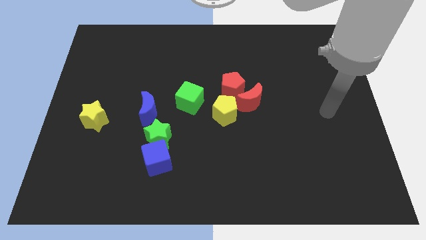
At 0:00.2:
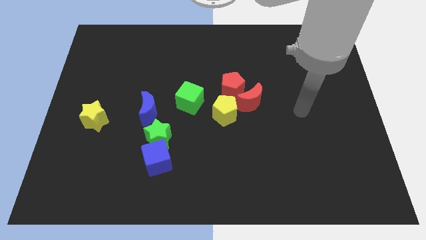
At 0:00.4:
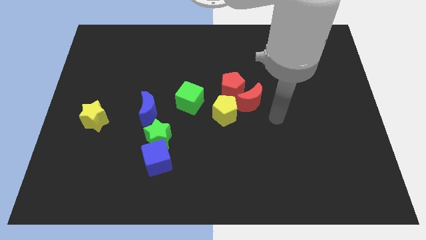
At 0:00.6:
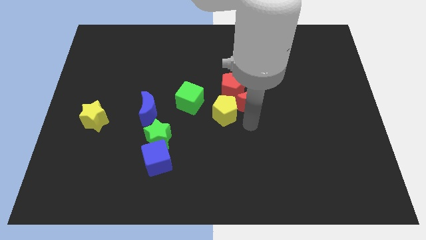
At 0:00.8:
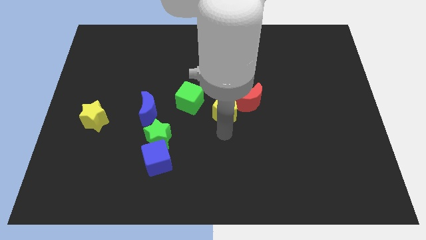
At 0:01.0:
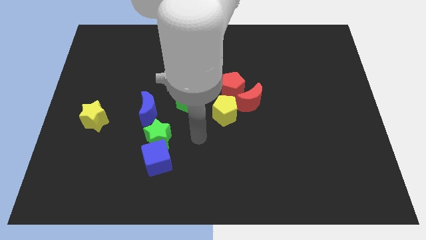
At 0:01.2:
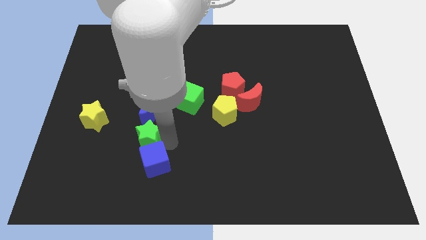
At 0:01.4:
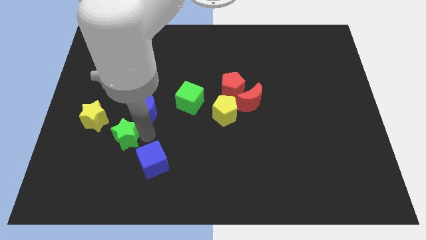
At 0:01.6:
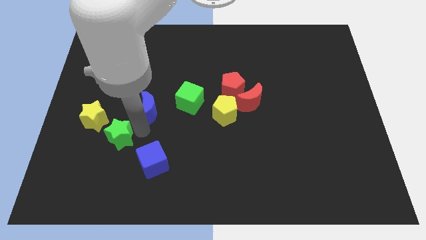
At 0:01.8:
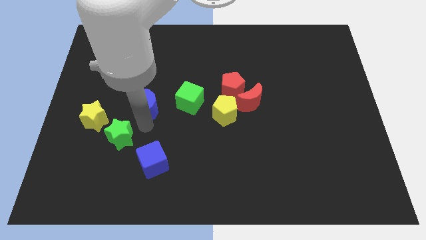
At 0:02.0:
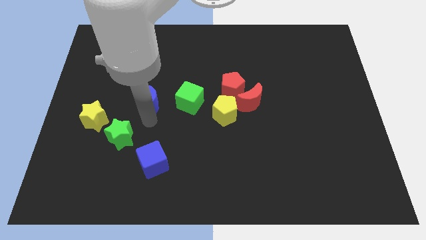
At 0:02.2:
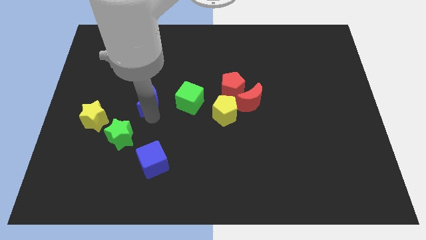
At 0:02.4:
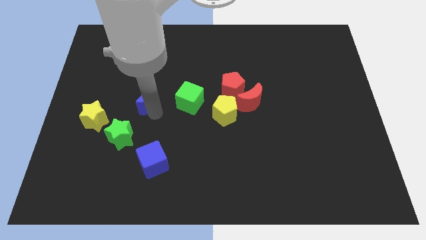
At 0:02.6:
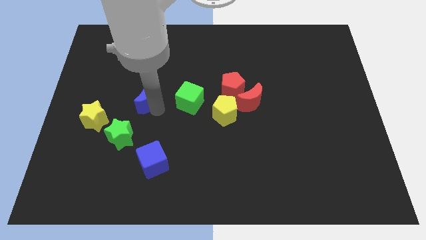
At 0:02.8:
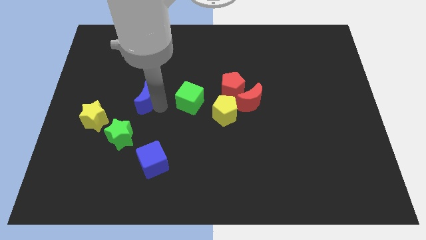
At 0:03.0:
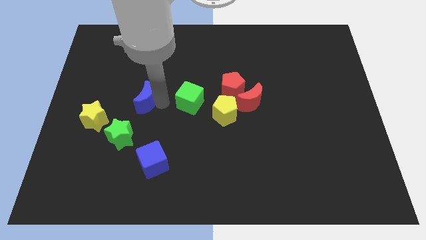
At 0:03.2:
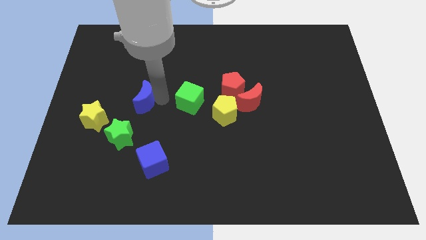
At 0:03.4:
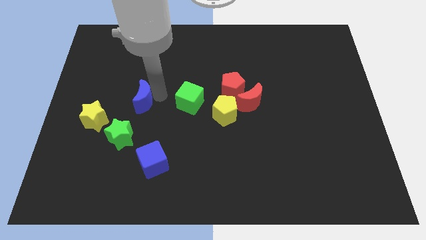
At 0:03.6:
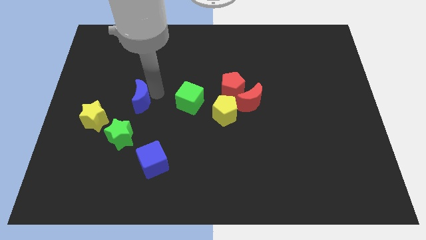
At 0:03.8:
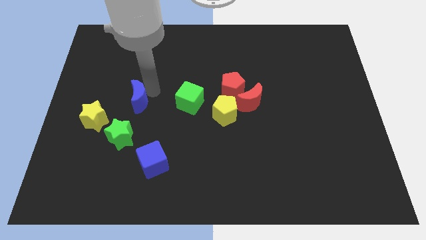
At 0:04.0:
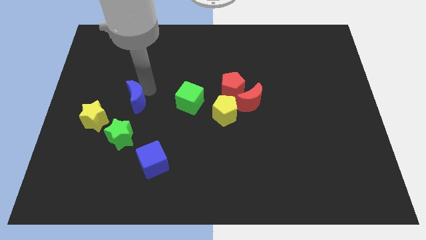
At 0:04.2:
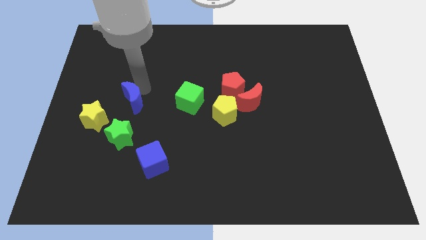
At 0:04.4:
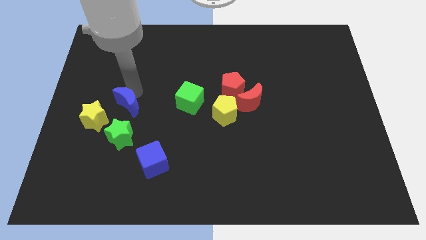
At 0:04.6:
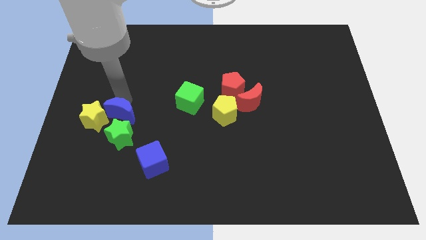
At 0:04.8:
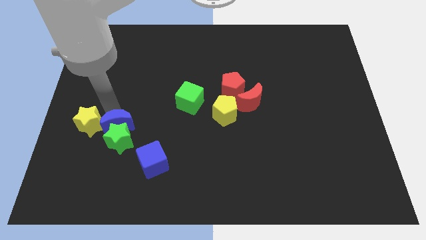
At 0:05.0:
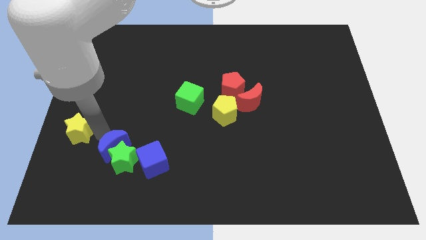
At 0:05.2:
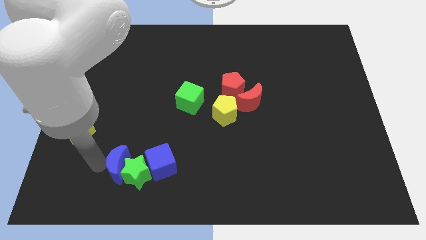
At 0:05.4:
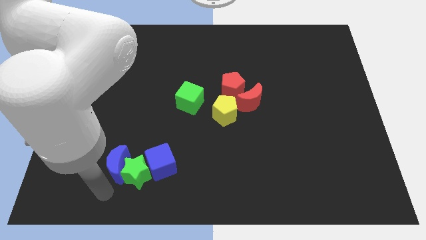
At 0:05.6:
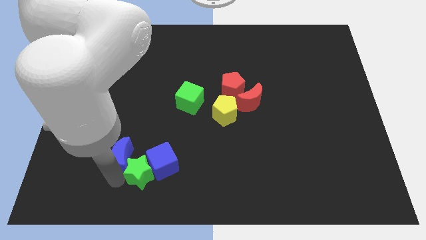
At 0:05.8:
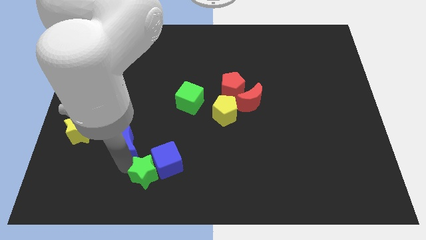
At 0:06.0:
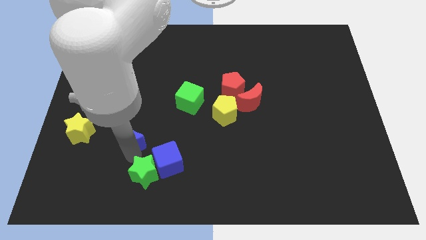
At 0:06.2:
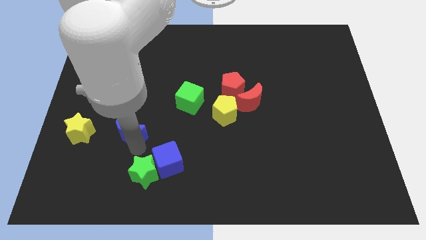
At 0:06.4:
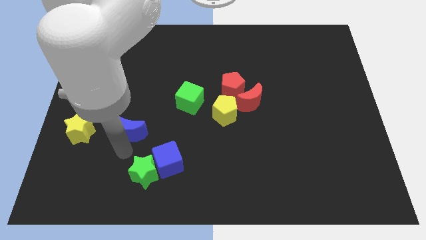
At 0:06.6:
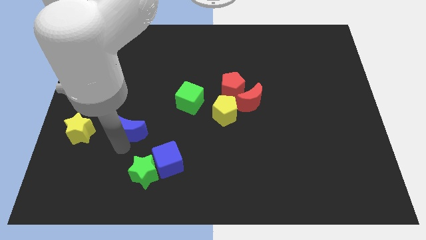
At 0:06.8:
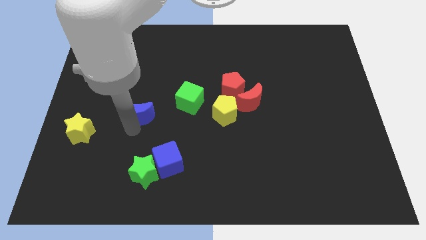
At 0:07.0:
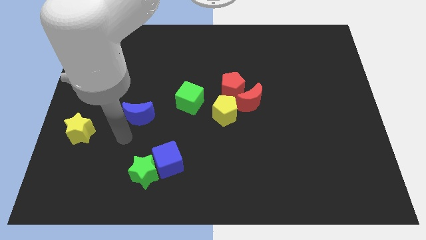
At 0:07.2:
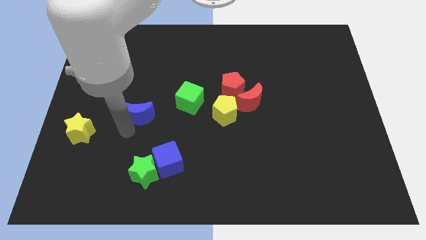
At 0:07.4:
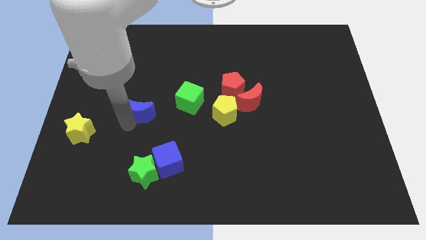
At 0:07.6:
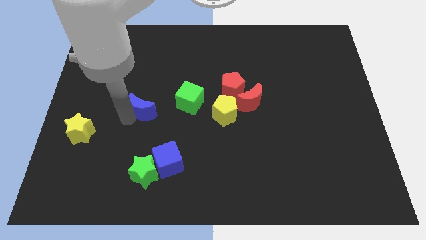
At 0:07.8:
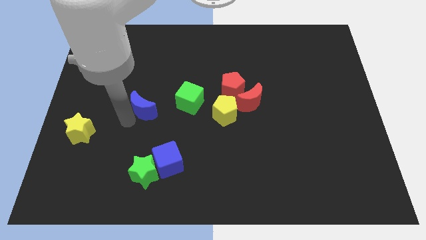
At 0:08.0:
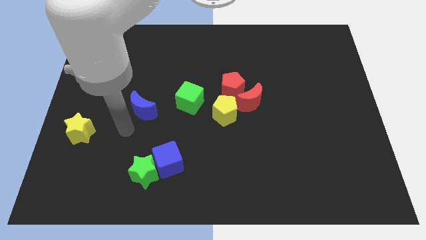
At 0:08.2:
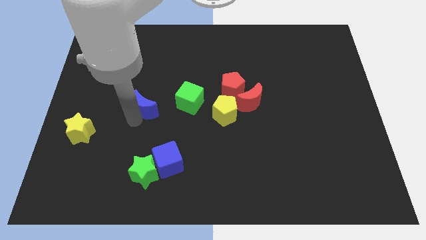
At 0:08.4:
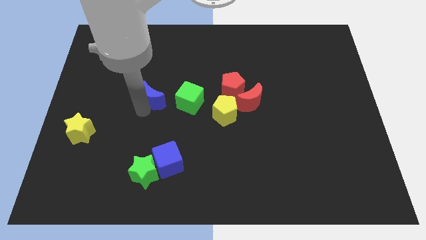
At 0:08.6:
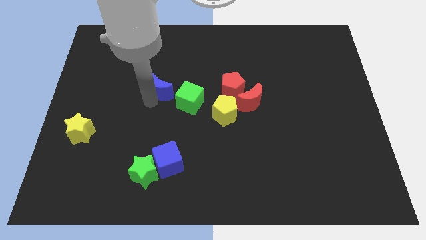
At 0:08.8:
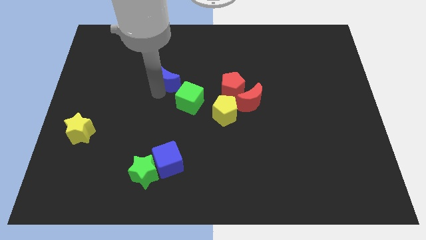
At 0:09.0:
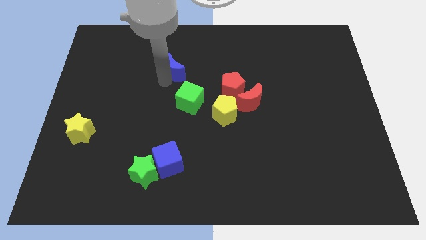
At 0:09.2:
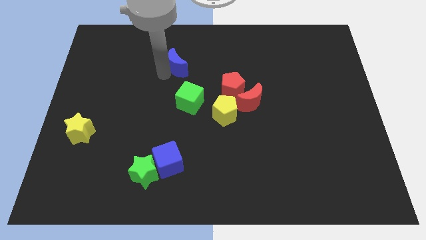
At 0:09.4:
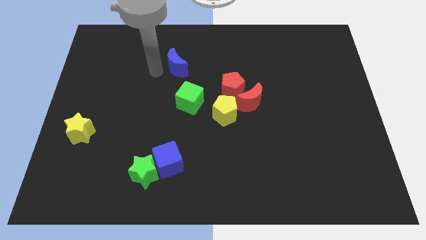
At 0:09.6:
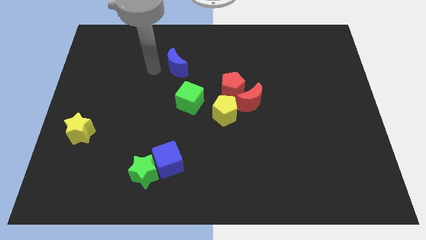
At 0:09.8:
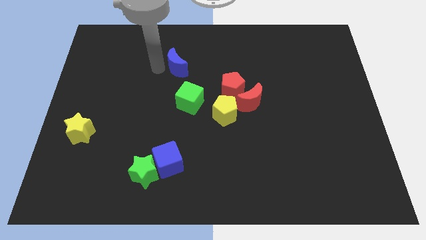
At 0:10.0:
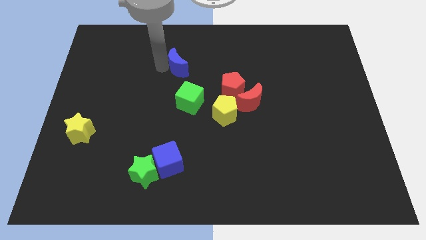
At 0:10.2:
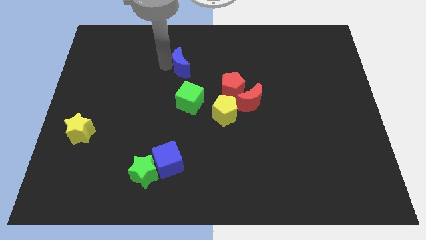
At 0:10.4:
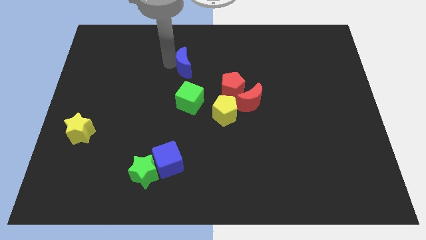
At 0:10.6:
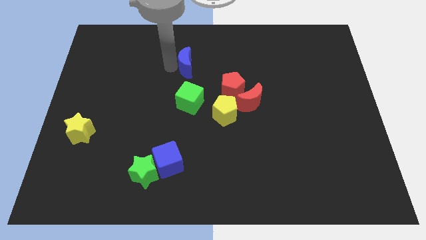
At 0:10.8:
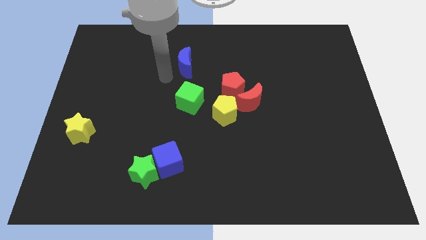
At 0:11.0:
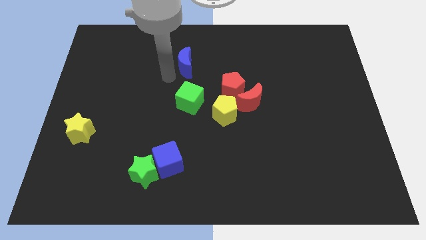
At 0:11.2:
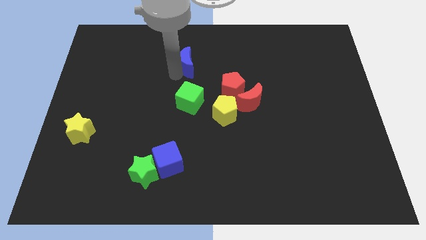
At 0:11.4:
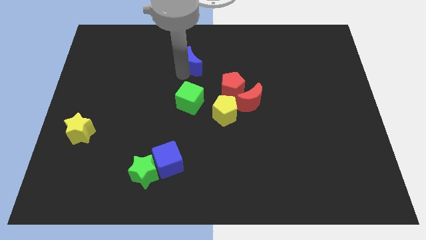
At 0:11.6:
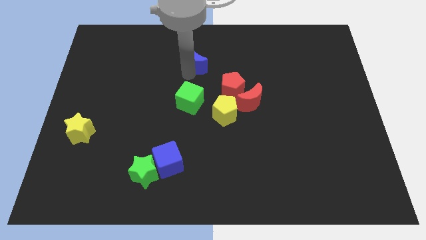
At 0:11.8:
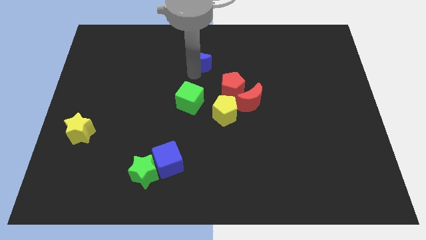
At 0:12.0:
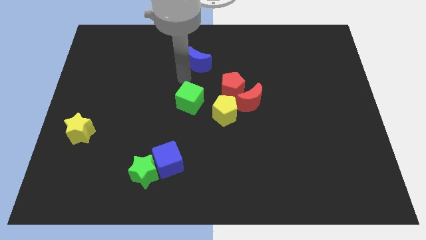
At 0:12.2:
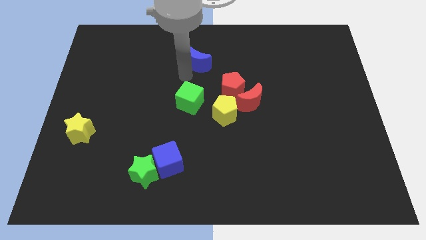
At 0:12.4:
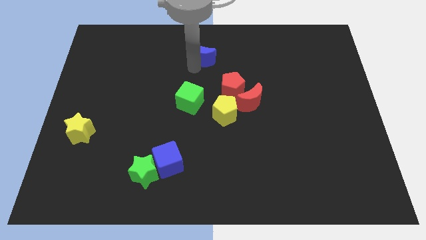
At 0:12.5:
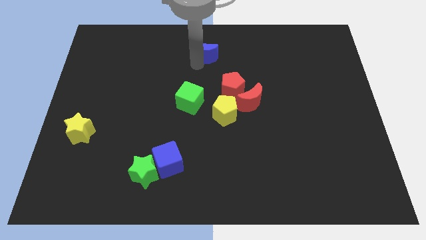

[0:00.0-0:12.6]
slide the blue moon to the top side
